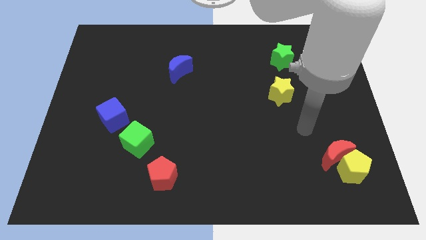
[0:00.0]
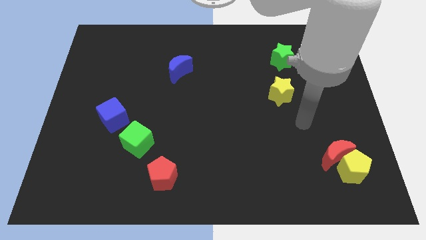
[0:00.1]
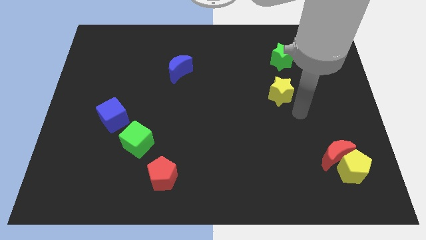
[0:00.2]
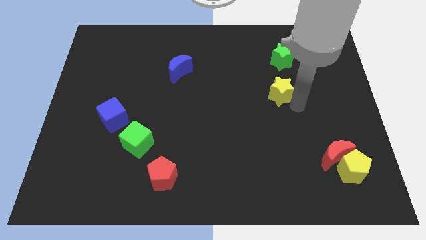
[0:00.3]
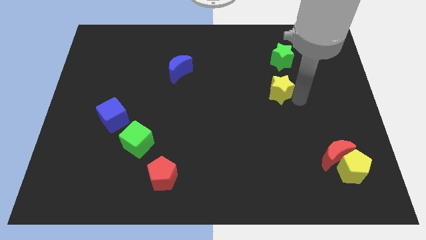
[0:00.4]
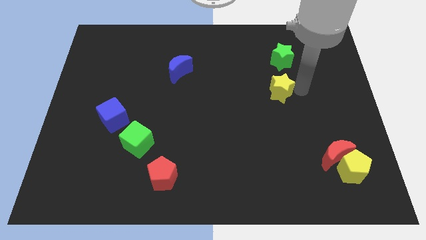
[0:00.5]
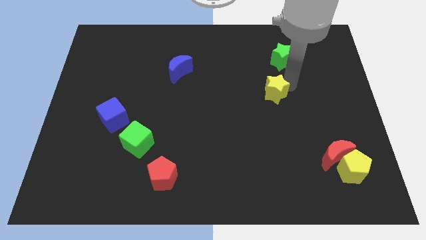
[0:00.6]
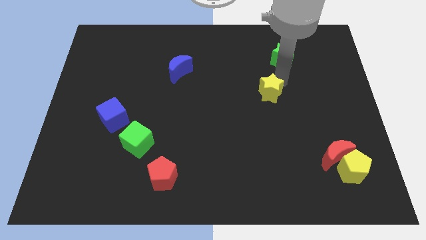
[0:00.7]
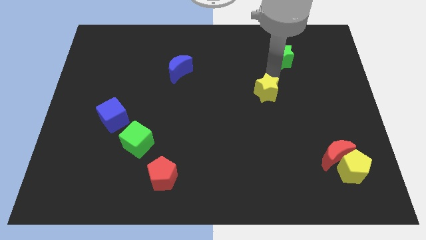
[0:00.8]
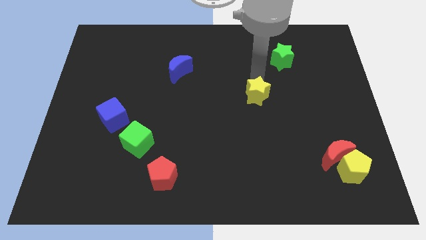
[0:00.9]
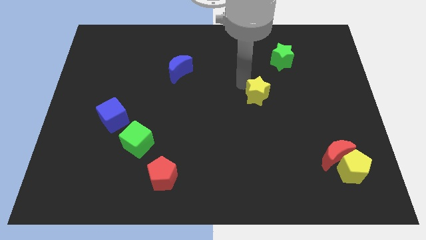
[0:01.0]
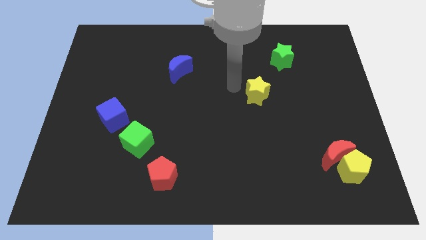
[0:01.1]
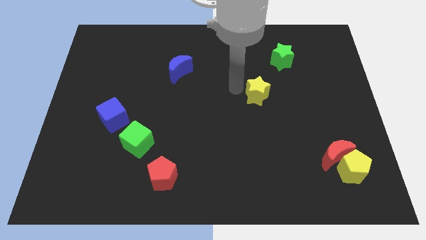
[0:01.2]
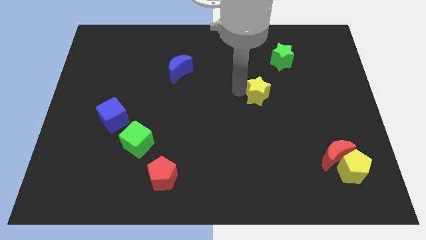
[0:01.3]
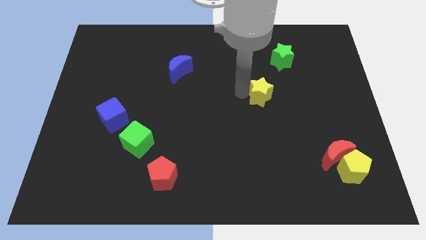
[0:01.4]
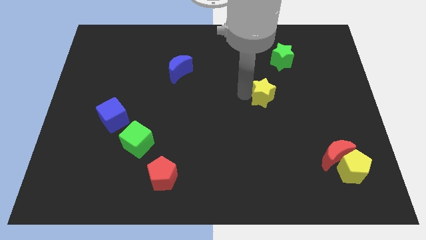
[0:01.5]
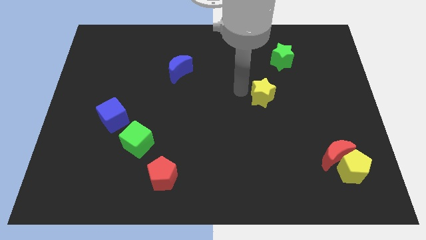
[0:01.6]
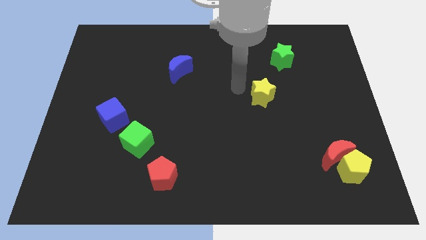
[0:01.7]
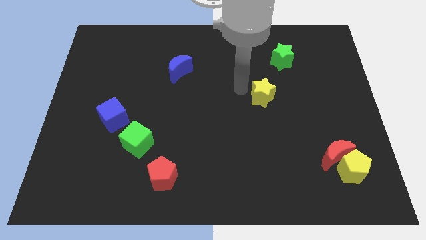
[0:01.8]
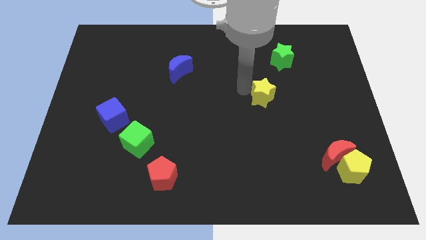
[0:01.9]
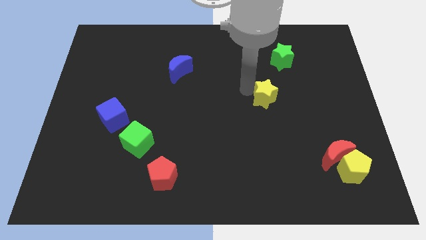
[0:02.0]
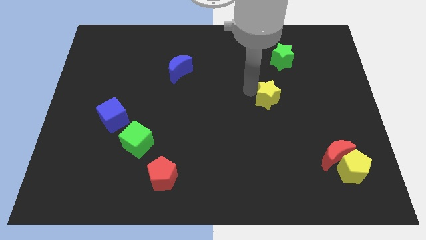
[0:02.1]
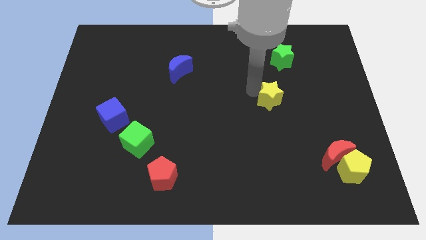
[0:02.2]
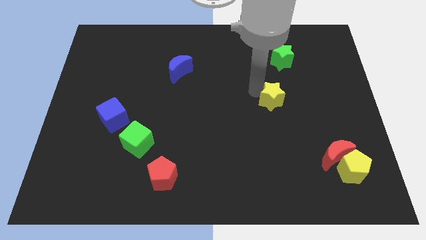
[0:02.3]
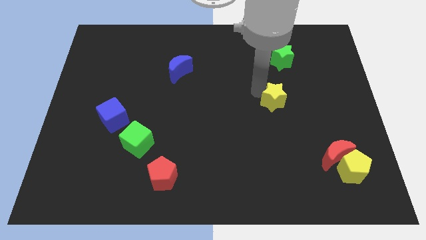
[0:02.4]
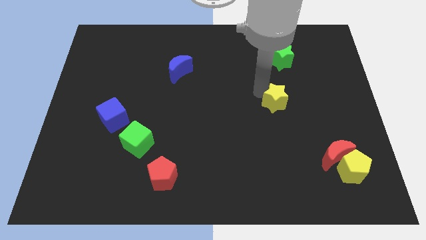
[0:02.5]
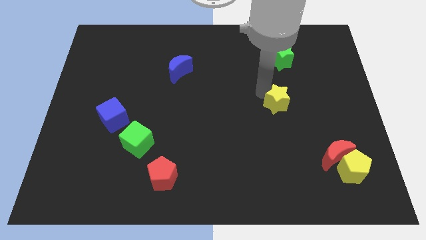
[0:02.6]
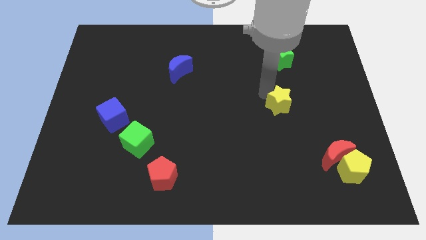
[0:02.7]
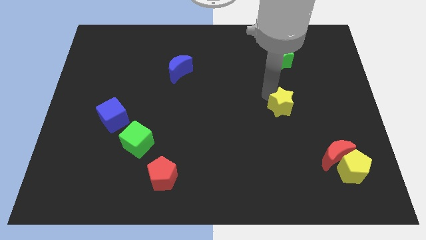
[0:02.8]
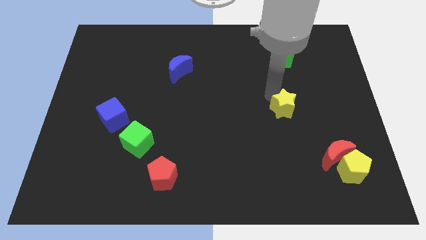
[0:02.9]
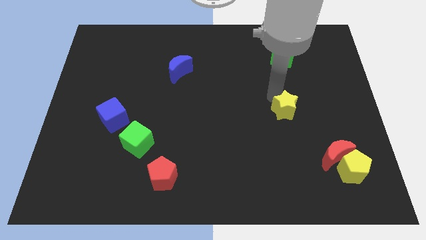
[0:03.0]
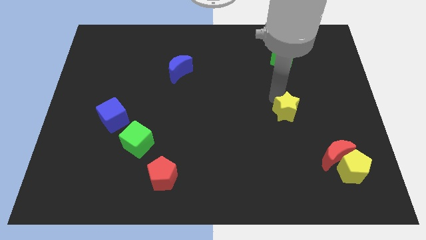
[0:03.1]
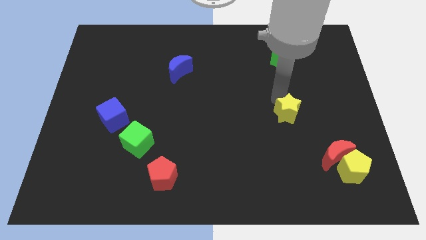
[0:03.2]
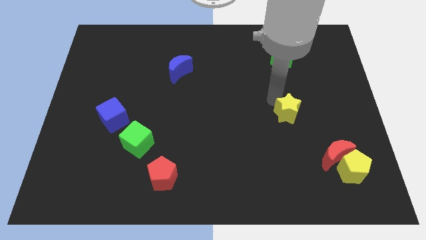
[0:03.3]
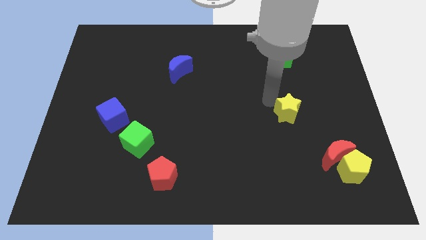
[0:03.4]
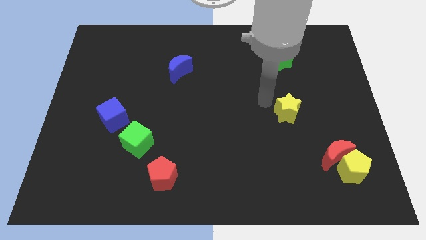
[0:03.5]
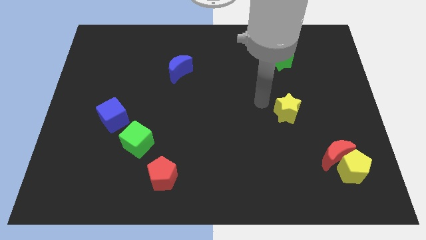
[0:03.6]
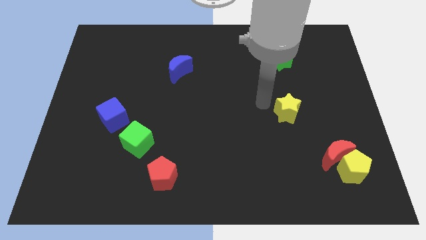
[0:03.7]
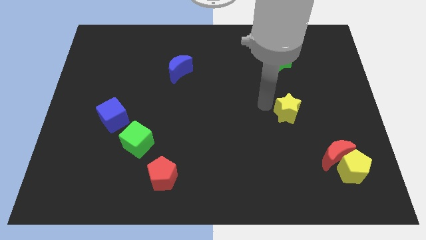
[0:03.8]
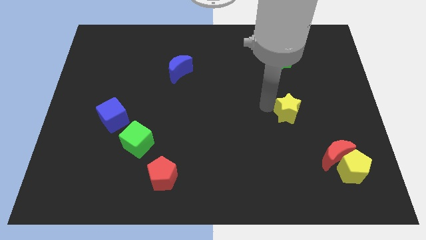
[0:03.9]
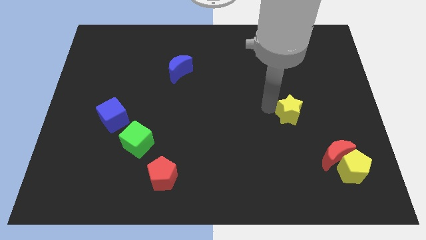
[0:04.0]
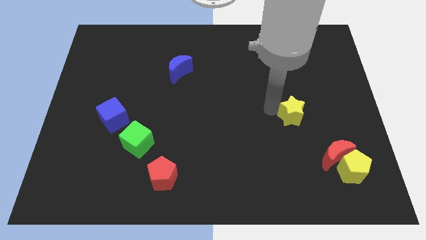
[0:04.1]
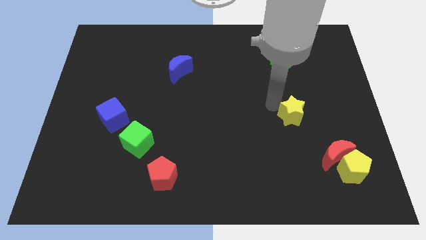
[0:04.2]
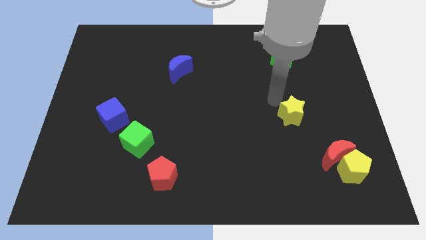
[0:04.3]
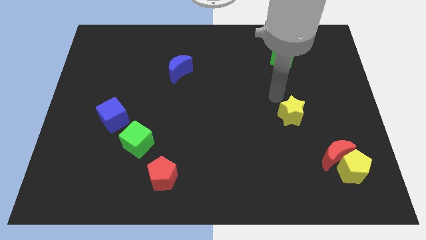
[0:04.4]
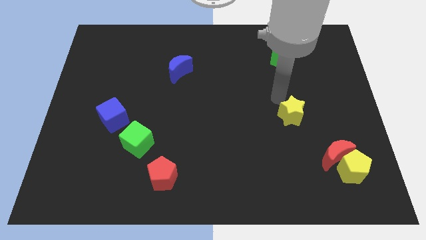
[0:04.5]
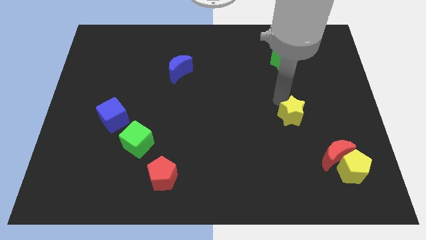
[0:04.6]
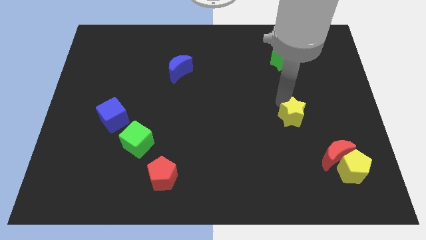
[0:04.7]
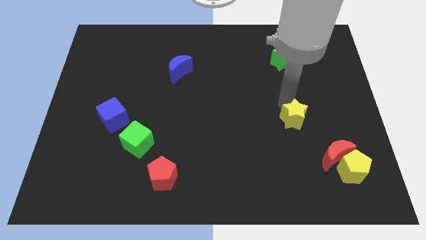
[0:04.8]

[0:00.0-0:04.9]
slide the yellow star to the top left side of the red moon

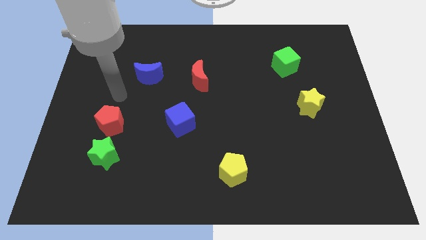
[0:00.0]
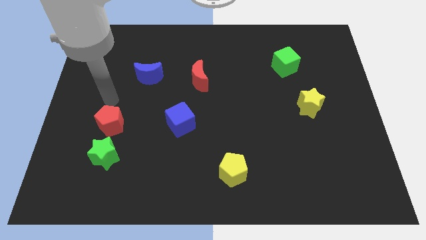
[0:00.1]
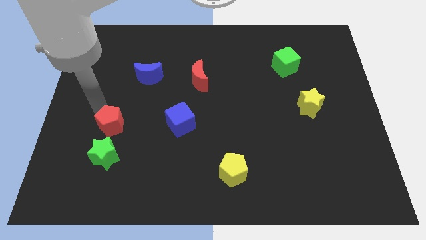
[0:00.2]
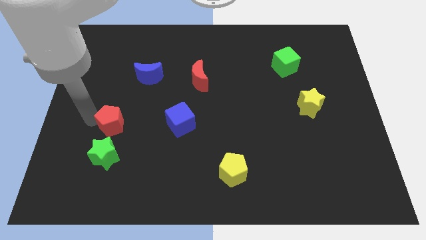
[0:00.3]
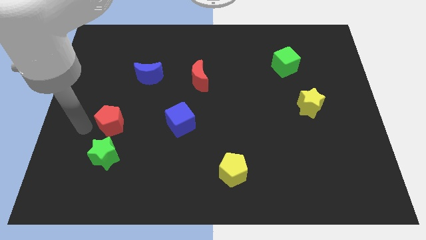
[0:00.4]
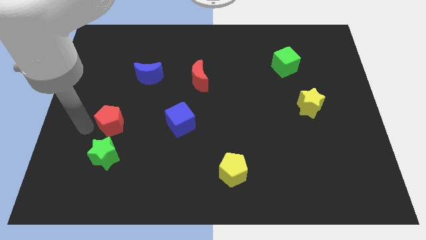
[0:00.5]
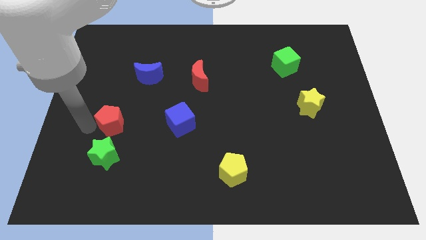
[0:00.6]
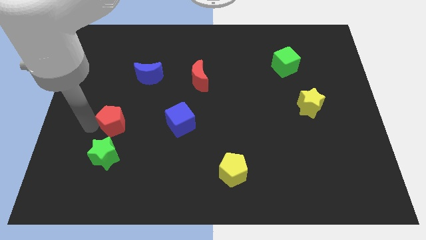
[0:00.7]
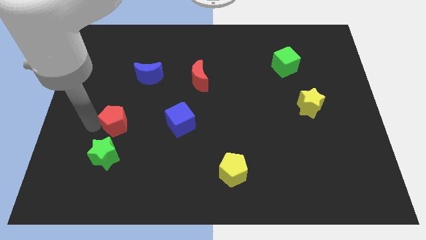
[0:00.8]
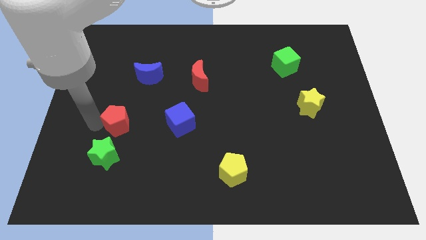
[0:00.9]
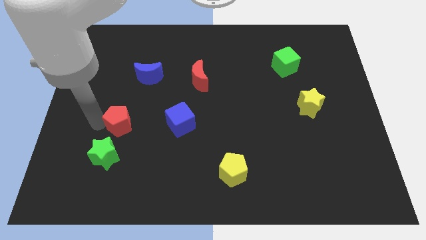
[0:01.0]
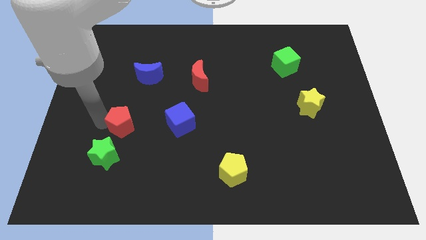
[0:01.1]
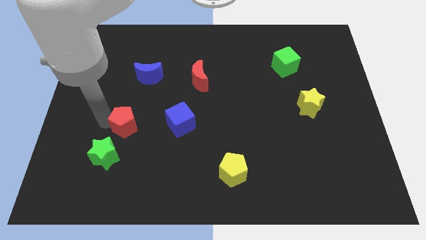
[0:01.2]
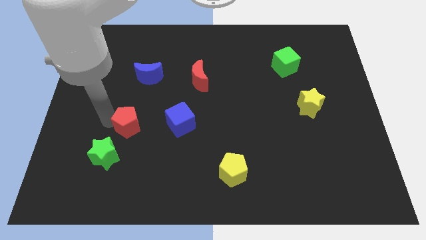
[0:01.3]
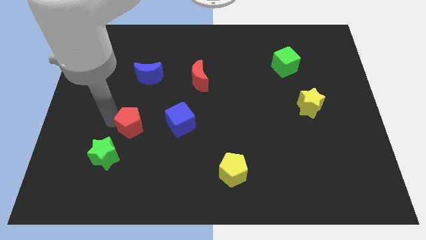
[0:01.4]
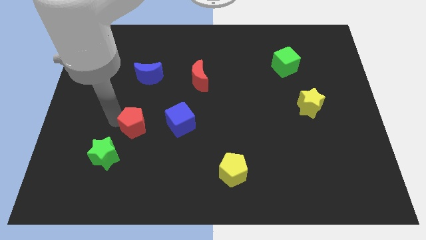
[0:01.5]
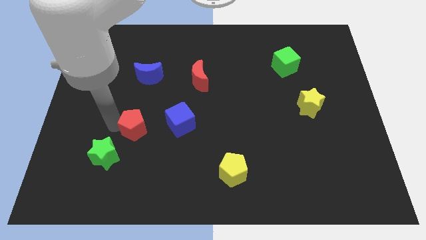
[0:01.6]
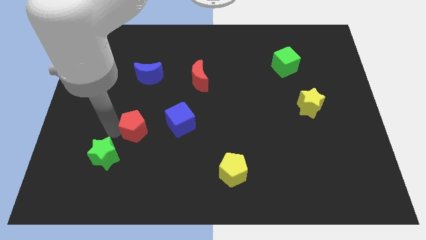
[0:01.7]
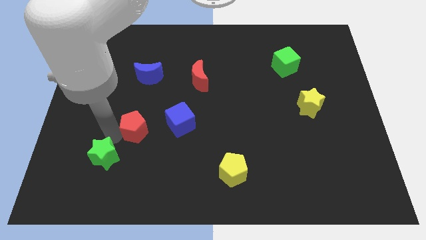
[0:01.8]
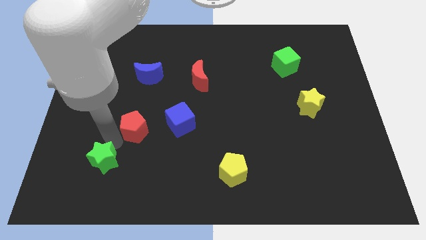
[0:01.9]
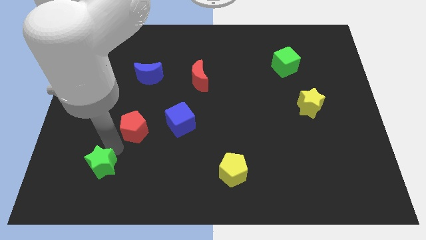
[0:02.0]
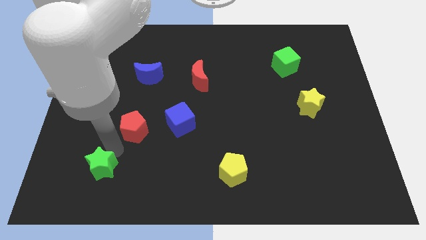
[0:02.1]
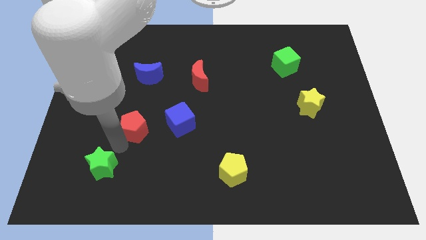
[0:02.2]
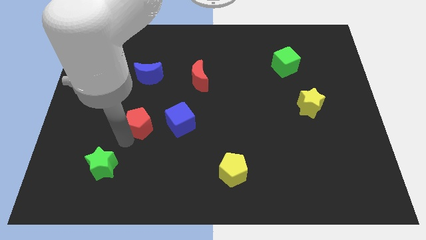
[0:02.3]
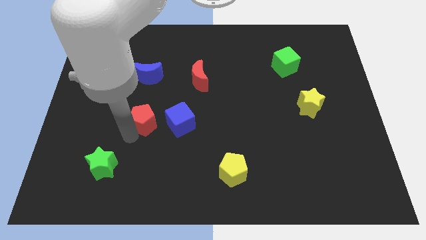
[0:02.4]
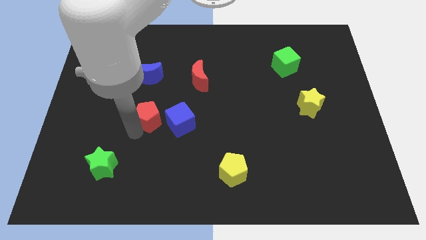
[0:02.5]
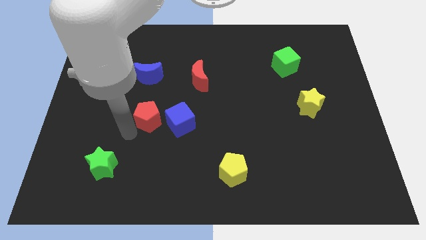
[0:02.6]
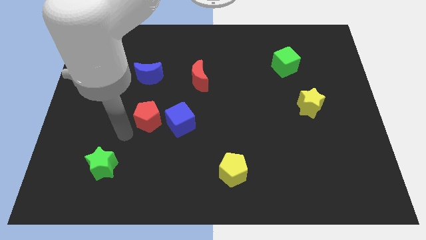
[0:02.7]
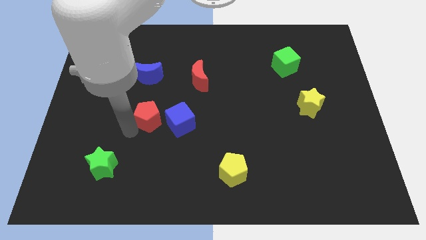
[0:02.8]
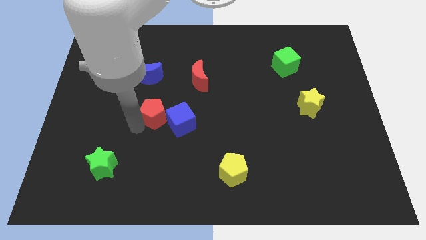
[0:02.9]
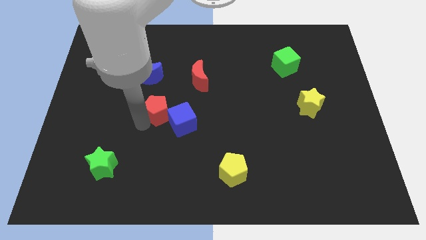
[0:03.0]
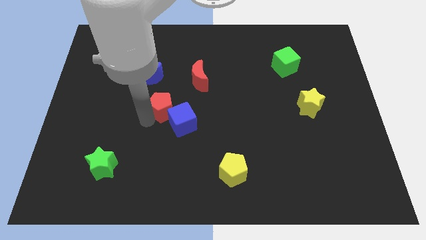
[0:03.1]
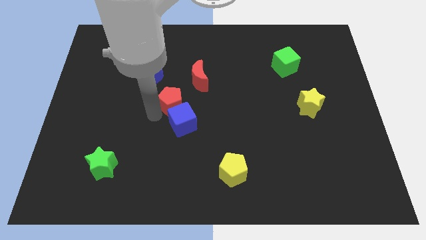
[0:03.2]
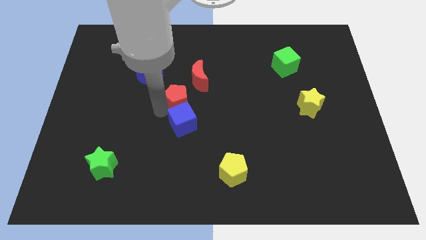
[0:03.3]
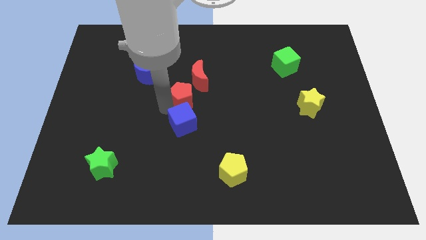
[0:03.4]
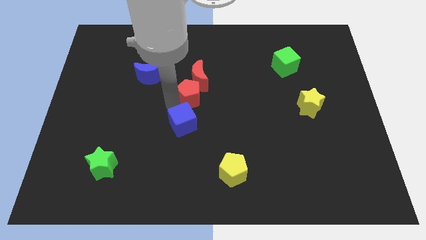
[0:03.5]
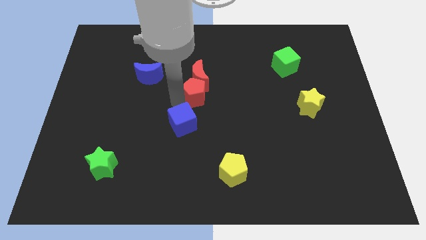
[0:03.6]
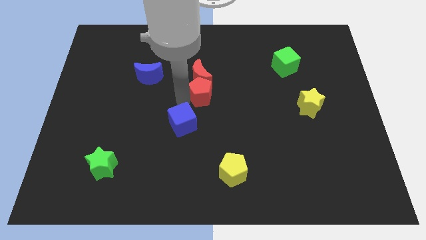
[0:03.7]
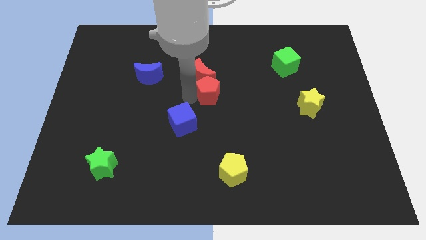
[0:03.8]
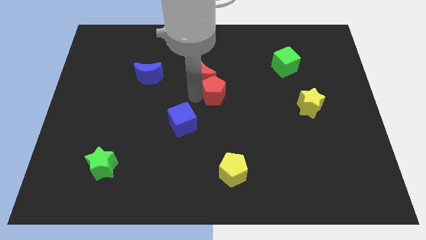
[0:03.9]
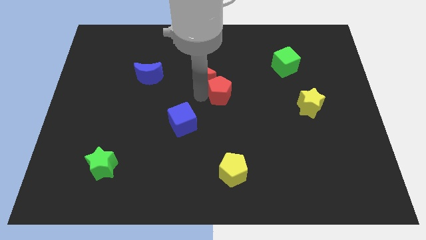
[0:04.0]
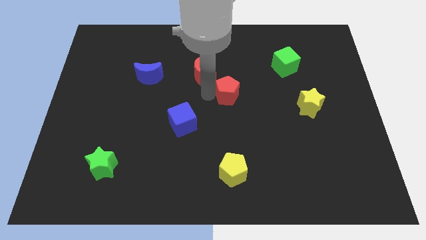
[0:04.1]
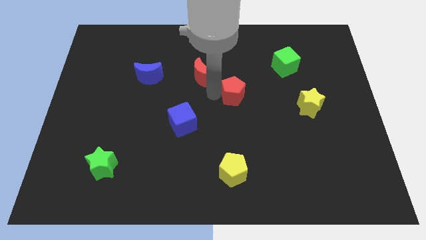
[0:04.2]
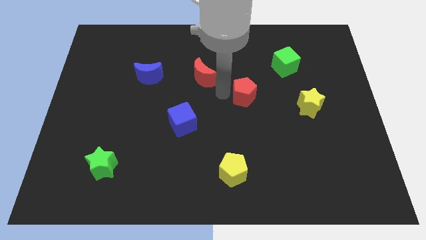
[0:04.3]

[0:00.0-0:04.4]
slide the red pentagon just left of the yellow star
